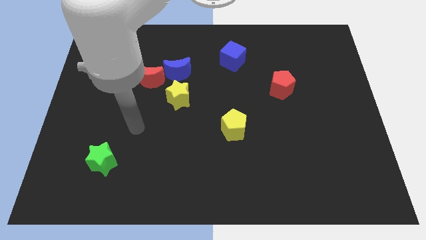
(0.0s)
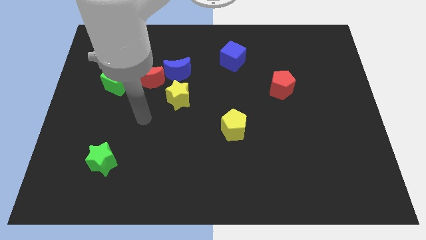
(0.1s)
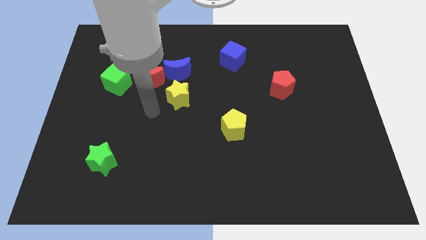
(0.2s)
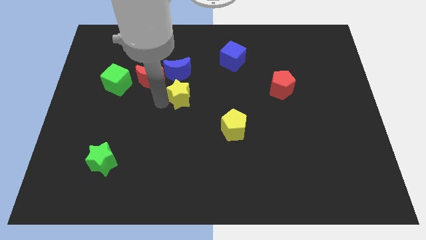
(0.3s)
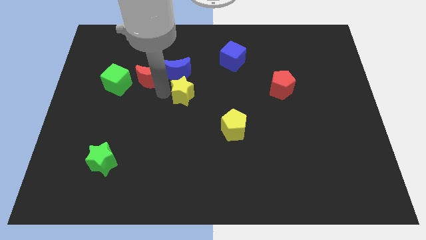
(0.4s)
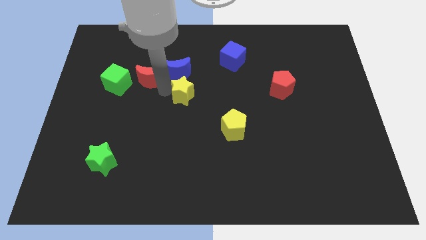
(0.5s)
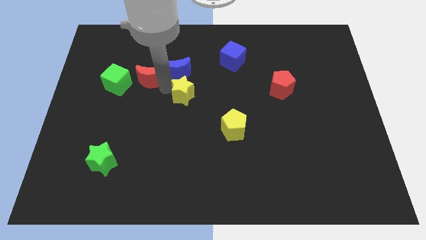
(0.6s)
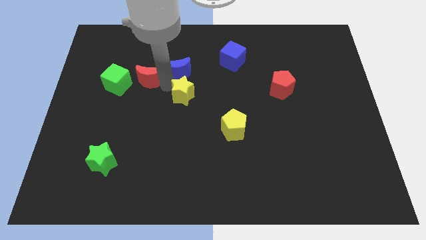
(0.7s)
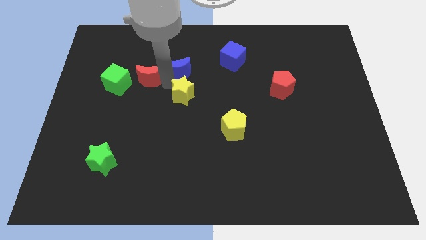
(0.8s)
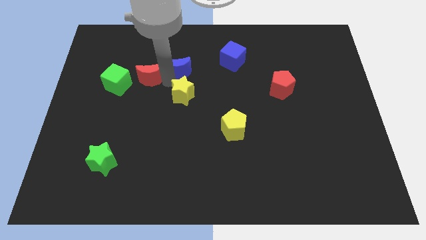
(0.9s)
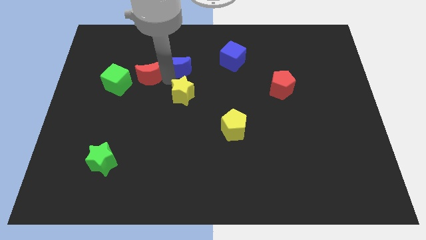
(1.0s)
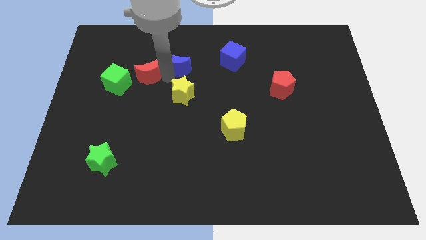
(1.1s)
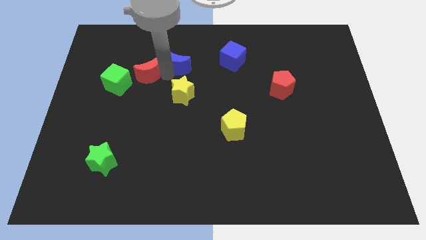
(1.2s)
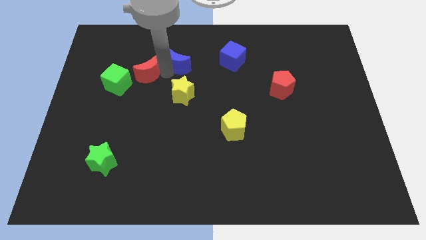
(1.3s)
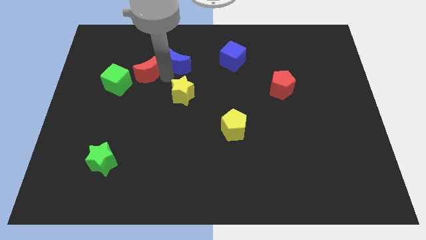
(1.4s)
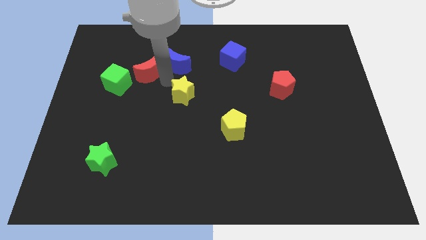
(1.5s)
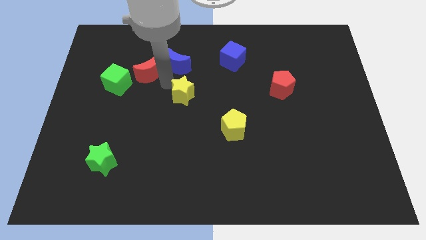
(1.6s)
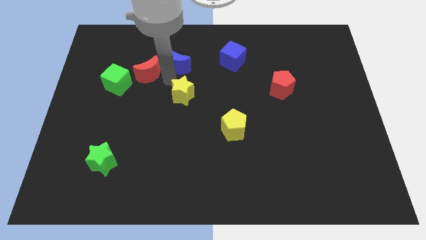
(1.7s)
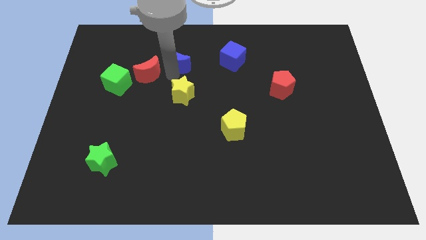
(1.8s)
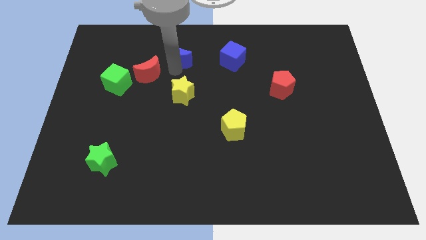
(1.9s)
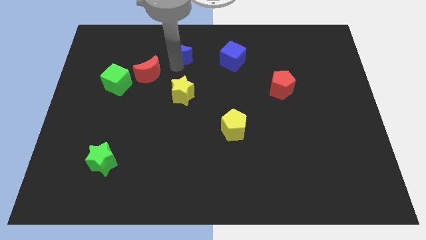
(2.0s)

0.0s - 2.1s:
pull the blue moon apart from the red moon and yellow star

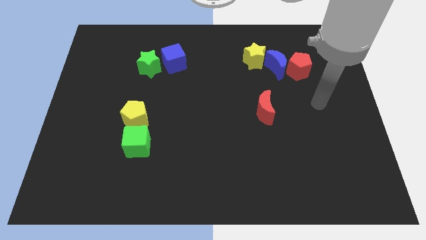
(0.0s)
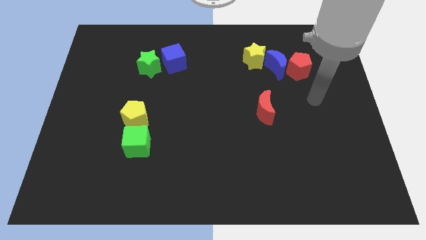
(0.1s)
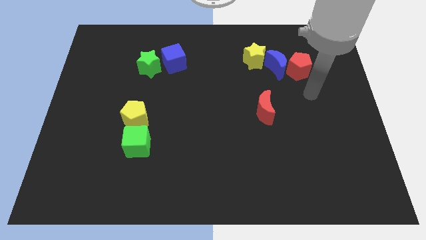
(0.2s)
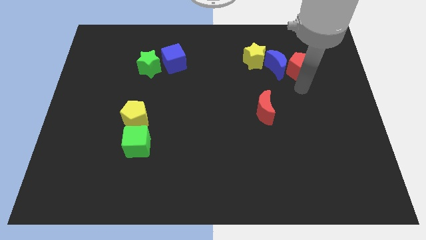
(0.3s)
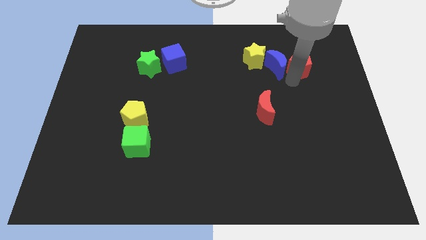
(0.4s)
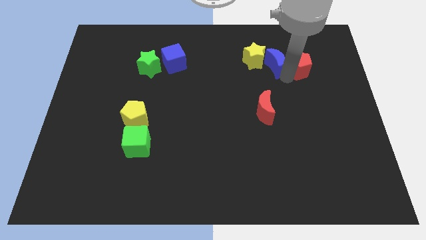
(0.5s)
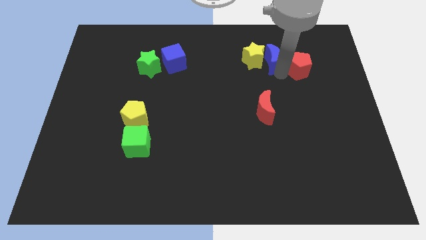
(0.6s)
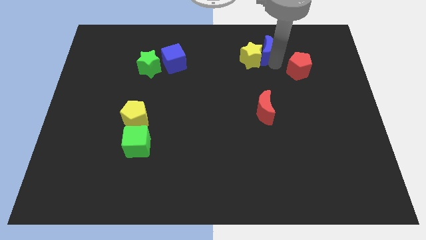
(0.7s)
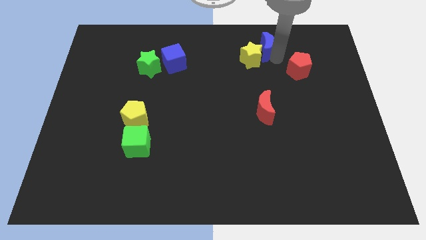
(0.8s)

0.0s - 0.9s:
move the red pentagon away from the blue moon

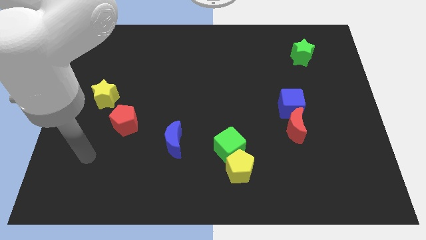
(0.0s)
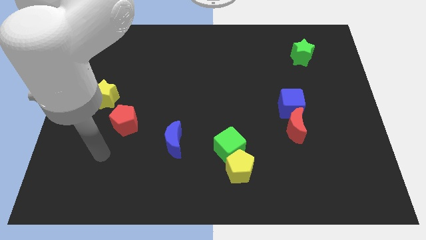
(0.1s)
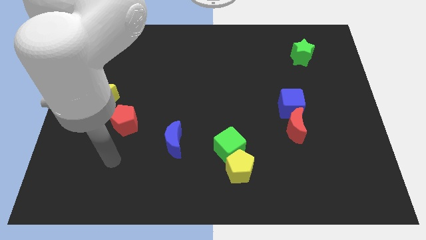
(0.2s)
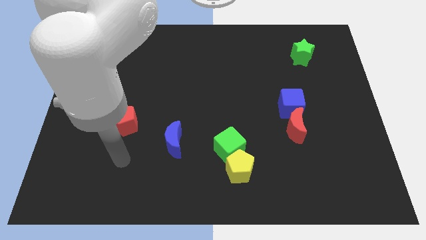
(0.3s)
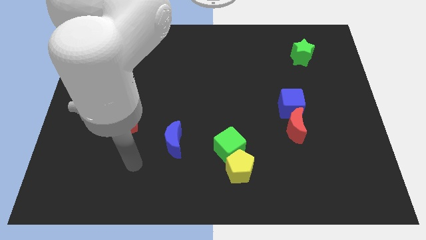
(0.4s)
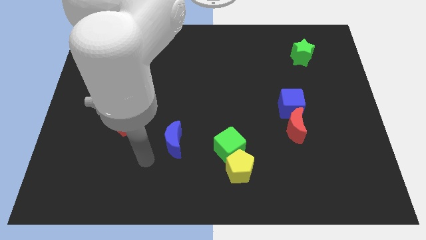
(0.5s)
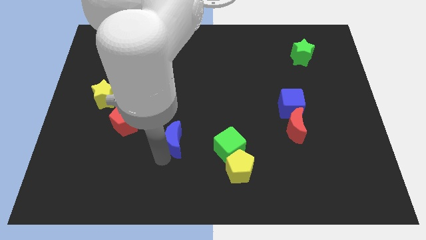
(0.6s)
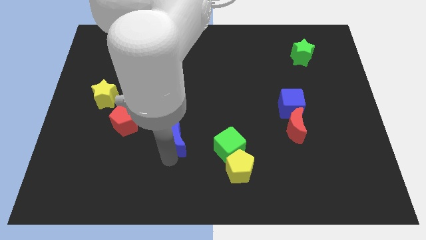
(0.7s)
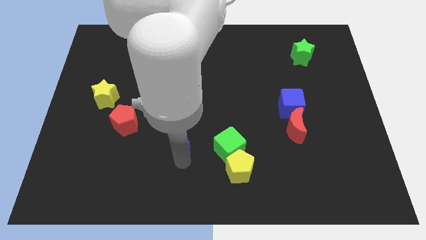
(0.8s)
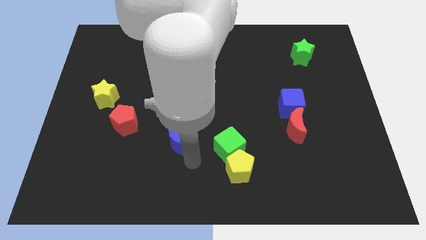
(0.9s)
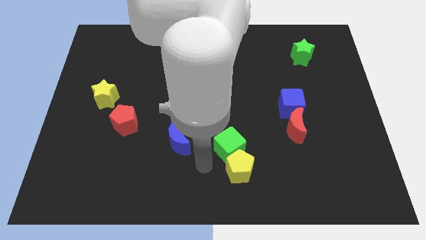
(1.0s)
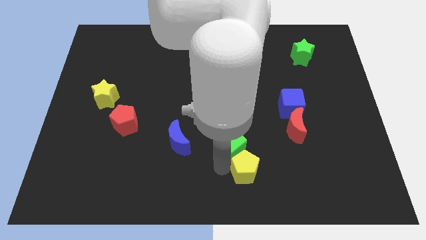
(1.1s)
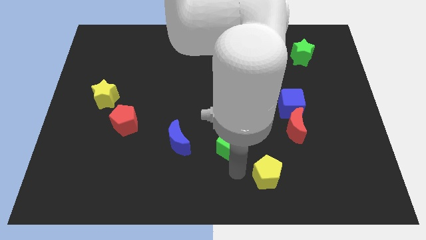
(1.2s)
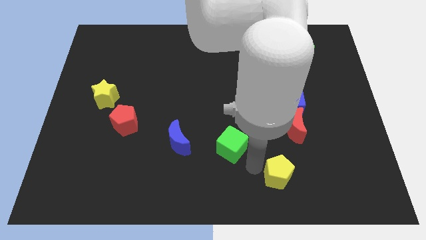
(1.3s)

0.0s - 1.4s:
move the green cube away from the yellow pentagon

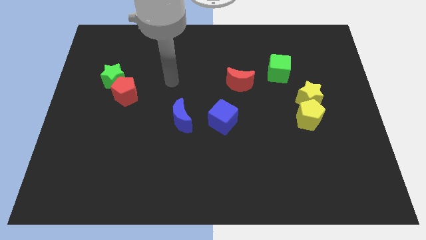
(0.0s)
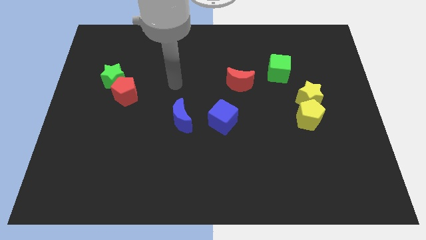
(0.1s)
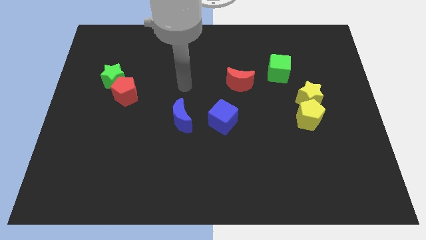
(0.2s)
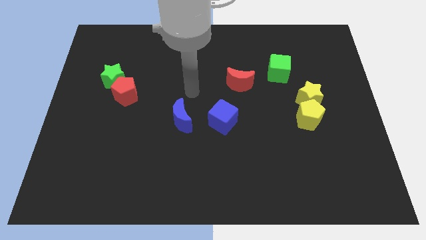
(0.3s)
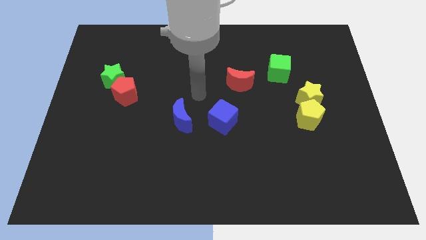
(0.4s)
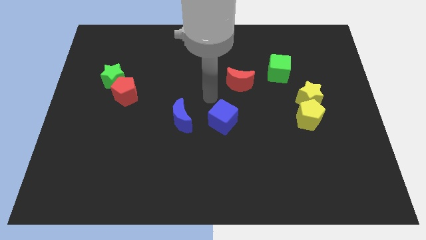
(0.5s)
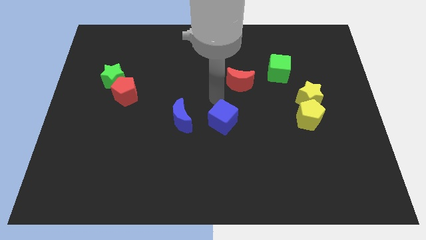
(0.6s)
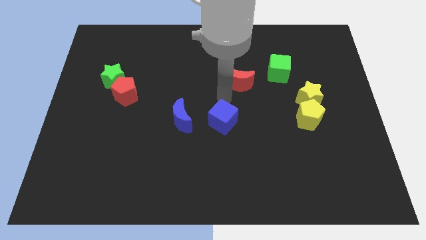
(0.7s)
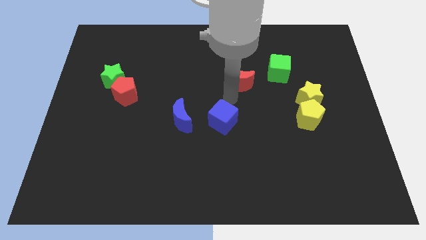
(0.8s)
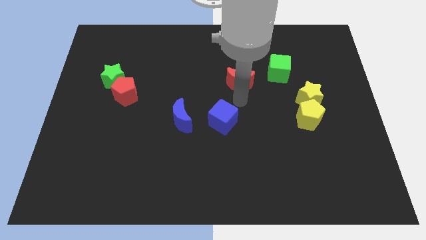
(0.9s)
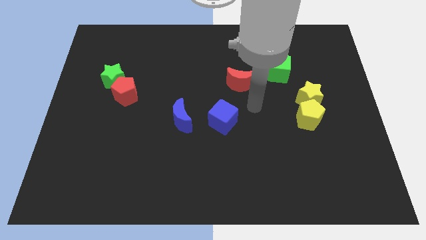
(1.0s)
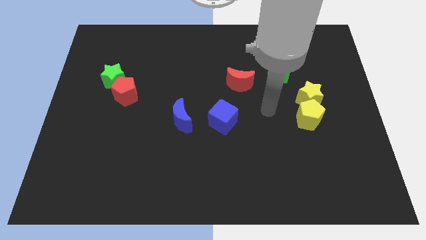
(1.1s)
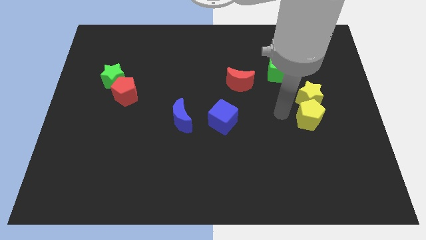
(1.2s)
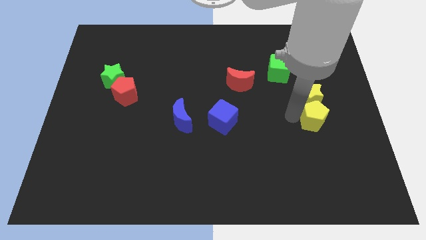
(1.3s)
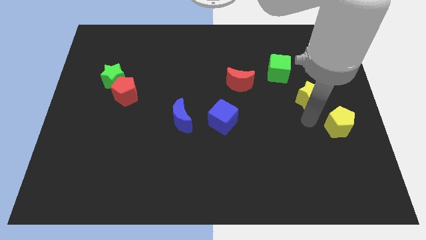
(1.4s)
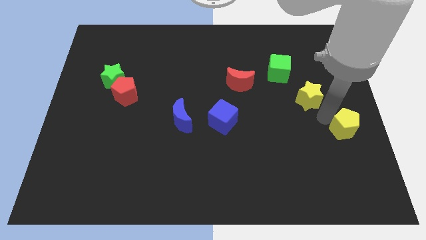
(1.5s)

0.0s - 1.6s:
move the yellow star away from the yellow pentagon

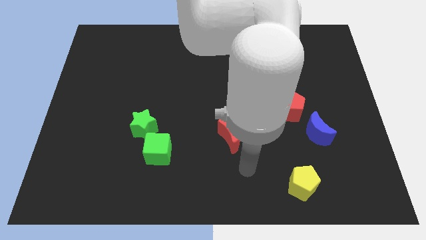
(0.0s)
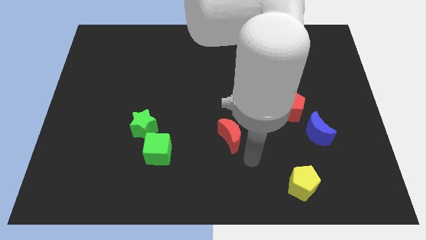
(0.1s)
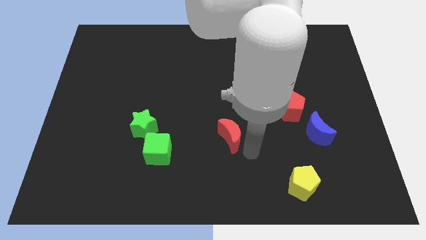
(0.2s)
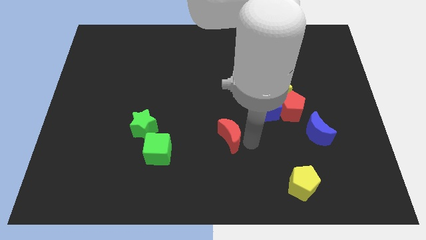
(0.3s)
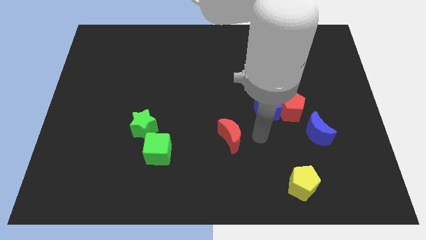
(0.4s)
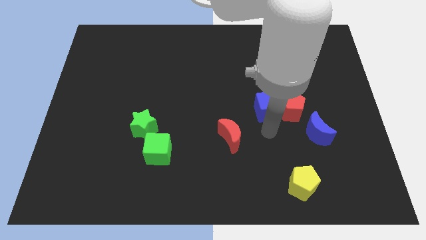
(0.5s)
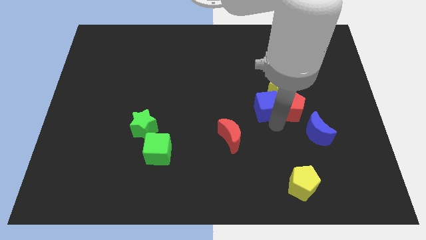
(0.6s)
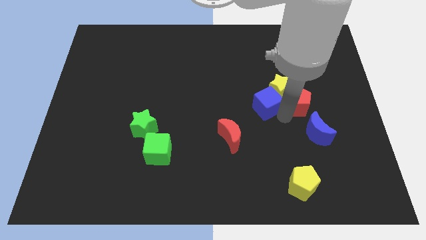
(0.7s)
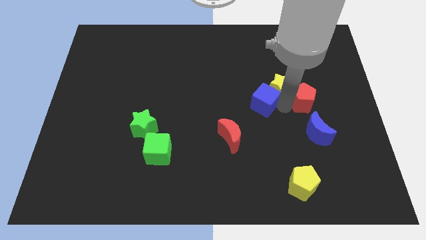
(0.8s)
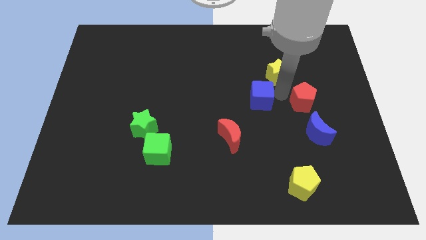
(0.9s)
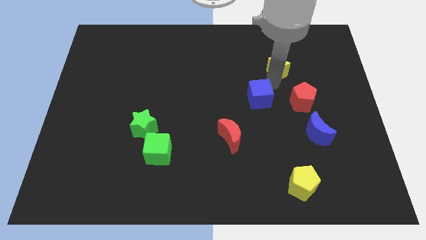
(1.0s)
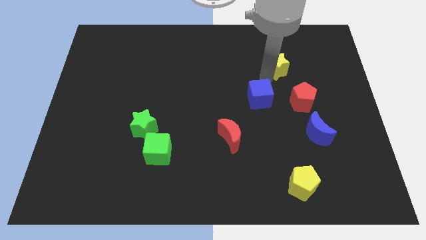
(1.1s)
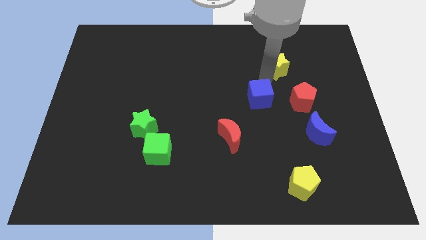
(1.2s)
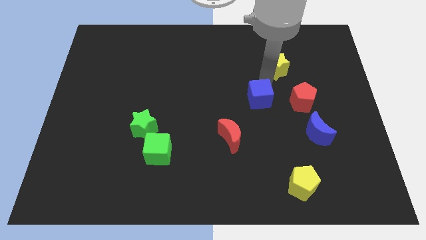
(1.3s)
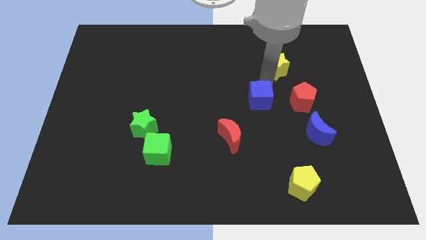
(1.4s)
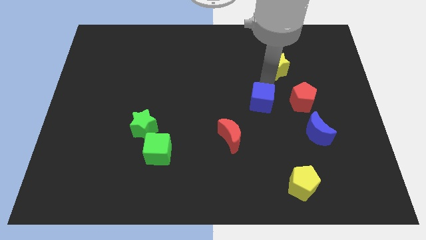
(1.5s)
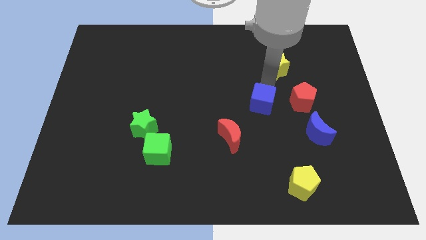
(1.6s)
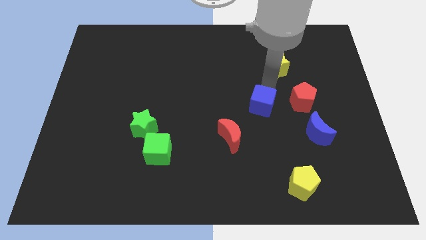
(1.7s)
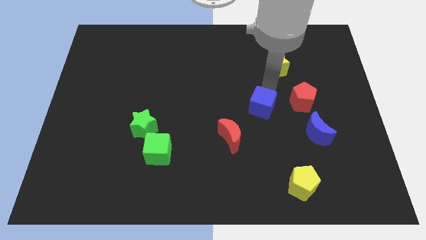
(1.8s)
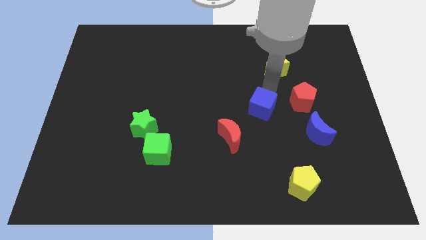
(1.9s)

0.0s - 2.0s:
pull the blue cube apart from the red pentagon and yellow star

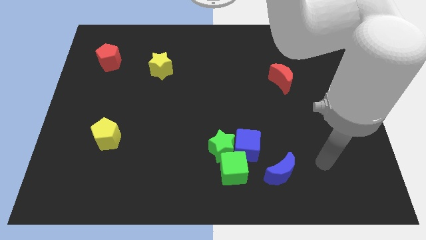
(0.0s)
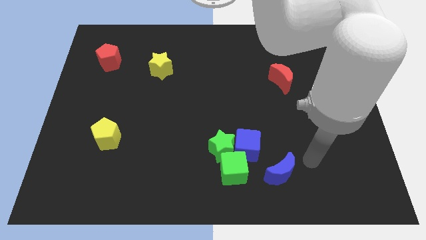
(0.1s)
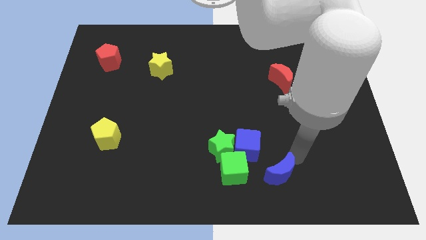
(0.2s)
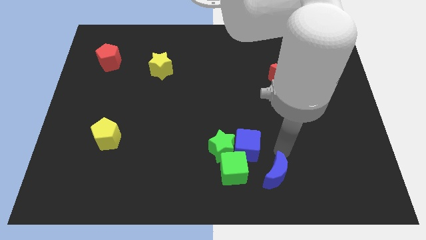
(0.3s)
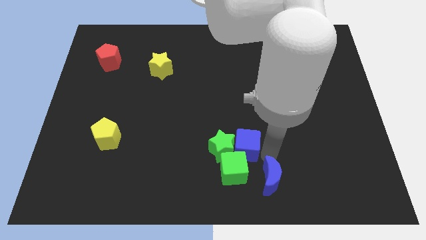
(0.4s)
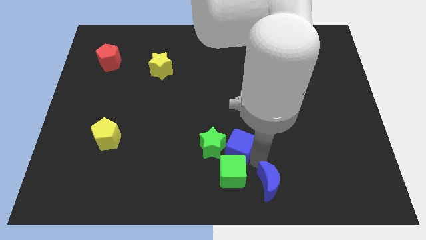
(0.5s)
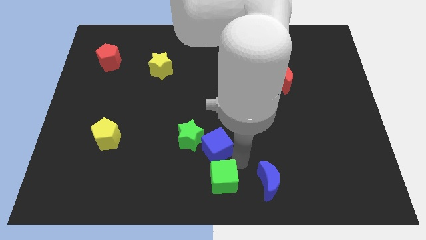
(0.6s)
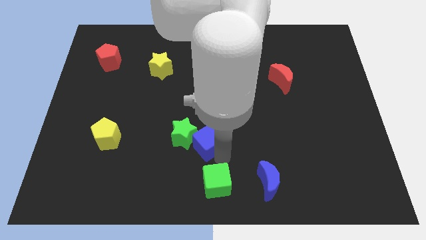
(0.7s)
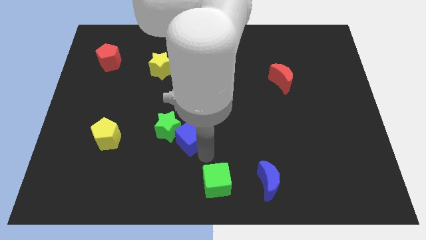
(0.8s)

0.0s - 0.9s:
move the green star away from the blue cube and green cube

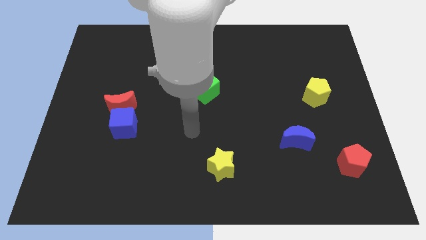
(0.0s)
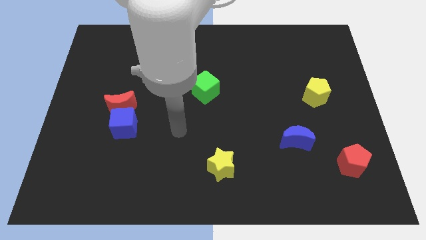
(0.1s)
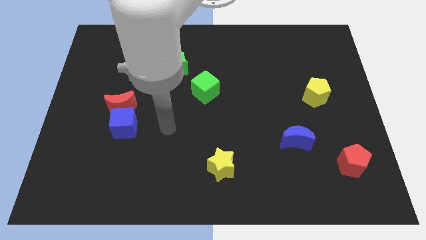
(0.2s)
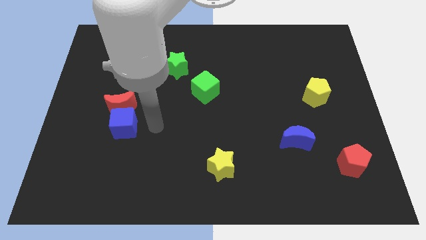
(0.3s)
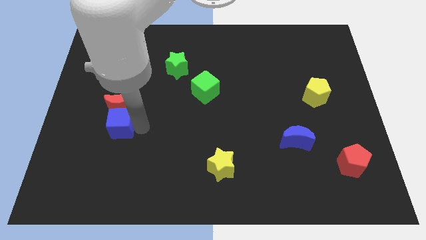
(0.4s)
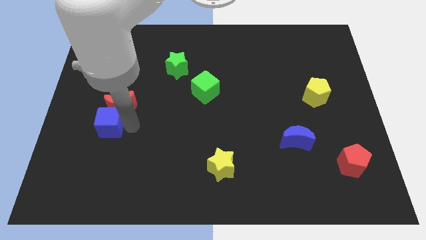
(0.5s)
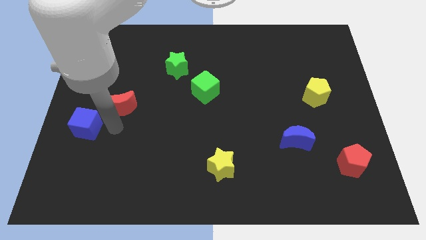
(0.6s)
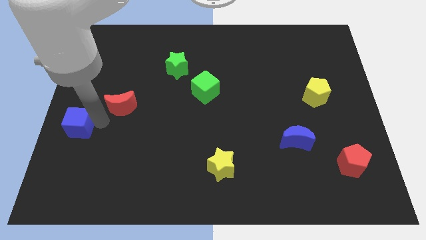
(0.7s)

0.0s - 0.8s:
pull the red moon apart from the blue cube
